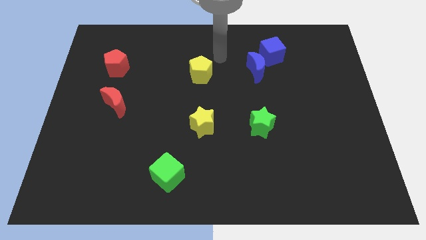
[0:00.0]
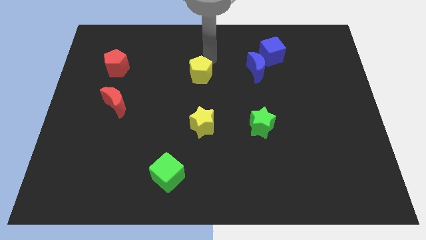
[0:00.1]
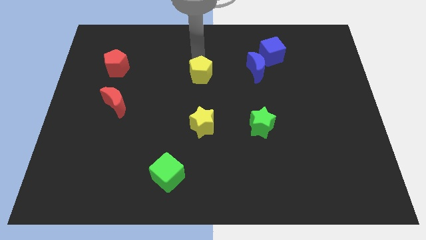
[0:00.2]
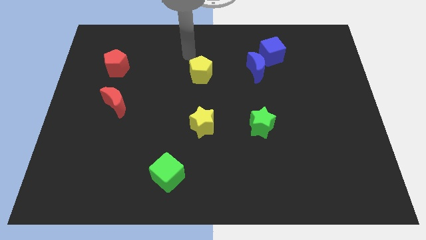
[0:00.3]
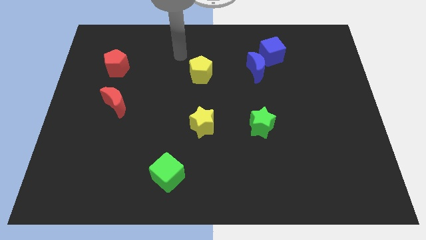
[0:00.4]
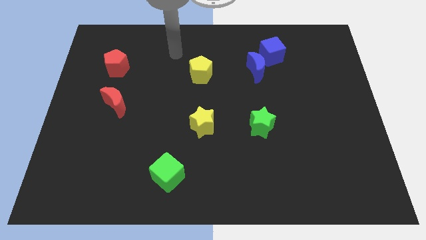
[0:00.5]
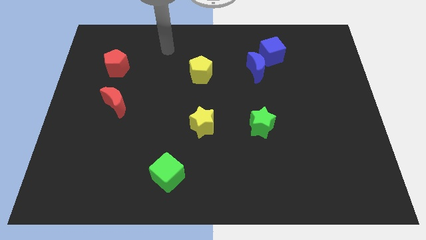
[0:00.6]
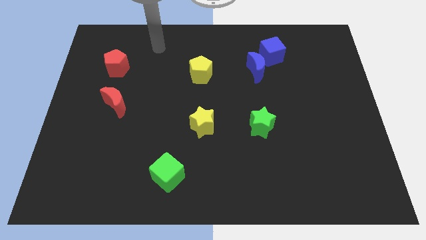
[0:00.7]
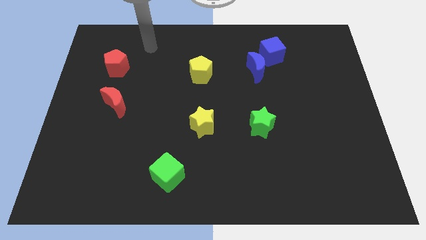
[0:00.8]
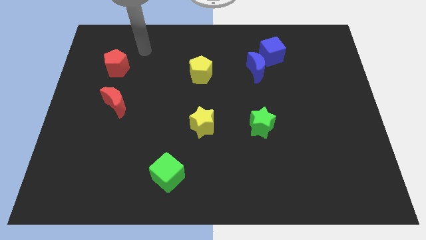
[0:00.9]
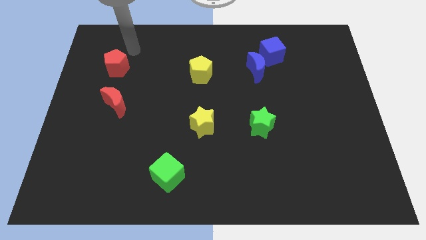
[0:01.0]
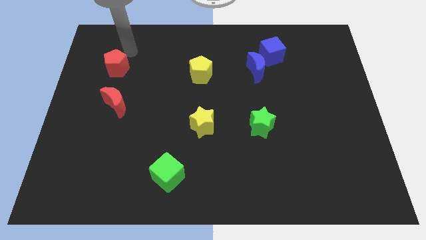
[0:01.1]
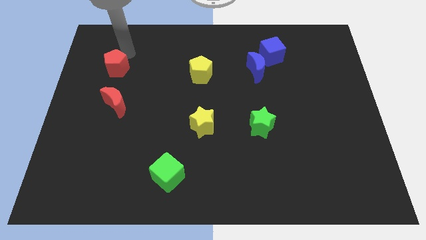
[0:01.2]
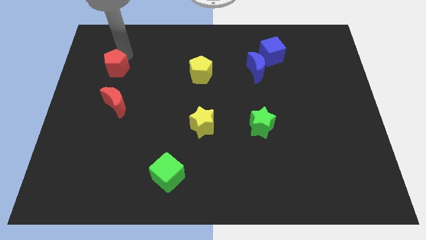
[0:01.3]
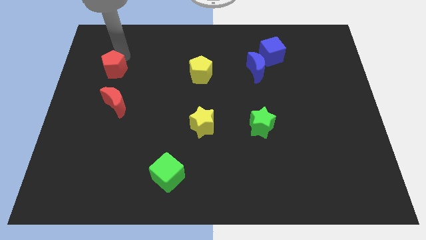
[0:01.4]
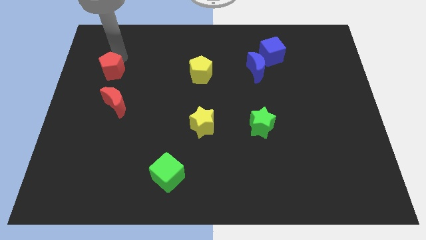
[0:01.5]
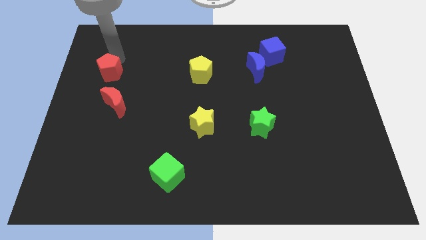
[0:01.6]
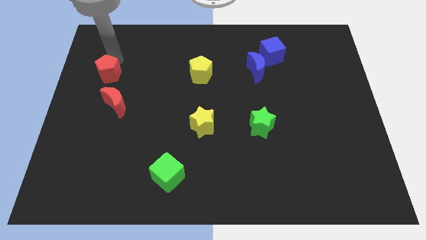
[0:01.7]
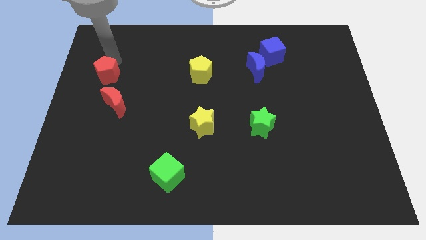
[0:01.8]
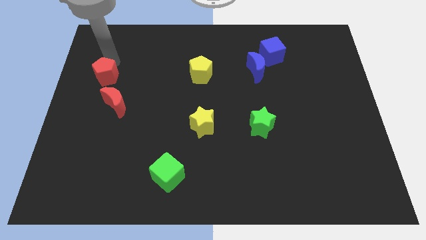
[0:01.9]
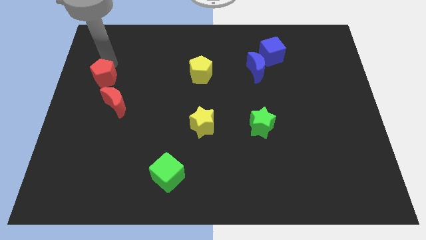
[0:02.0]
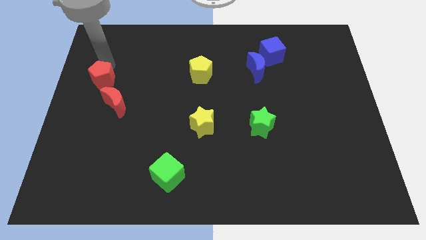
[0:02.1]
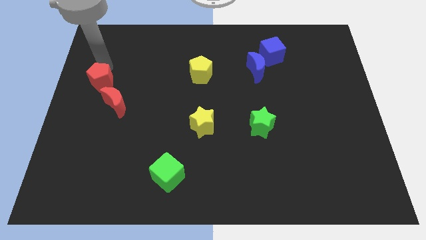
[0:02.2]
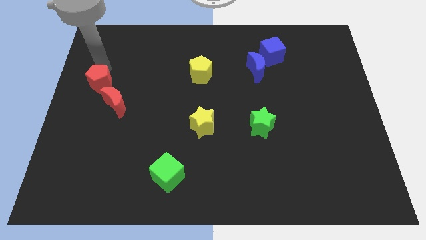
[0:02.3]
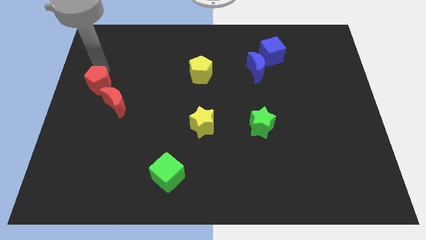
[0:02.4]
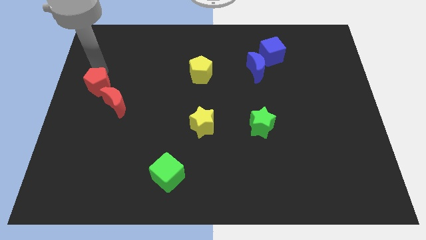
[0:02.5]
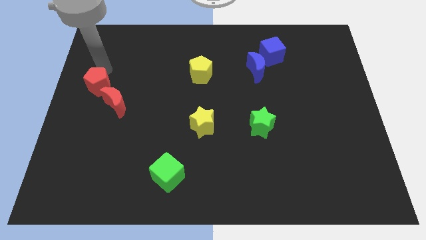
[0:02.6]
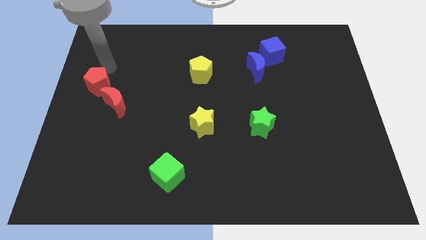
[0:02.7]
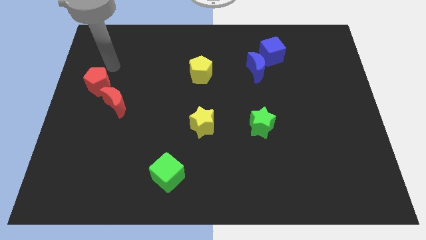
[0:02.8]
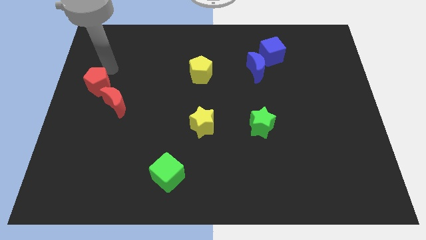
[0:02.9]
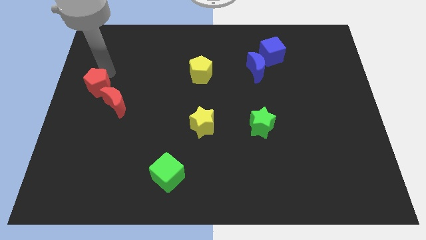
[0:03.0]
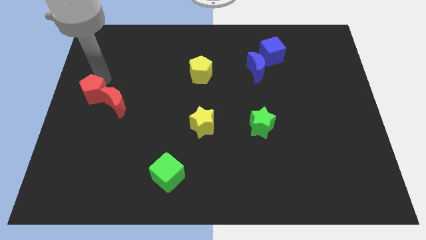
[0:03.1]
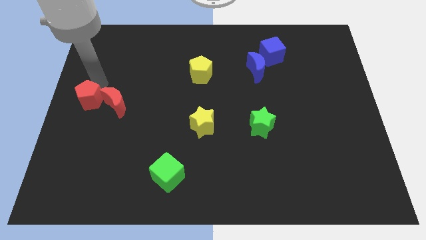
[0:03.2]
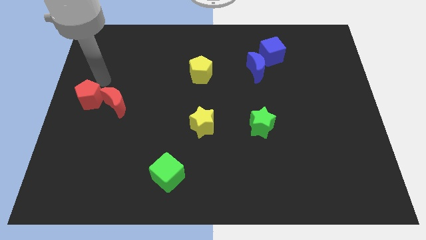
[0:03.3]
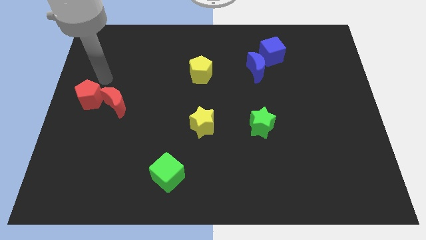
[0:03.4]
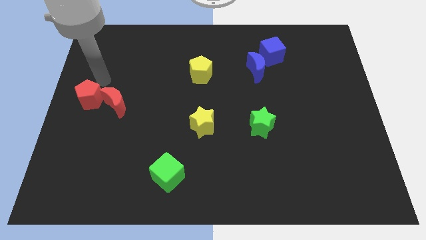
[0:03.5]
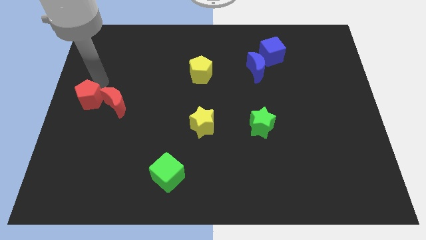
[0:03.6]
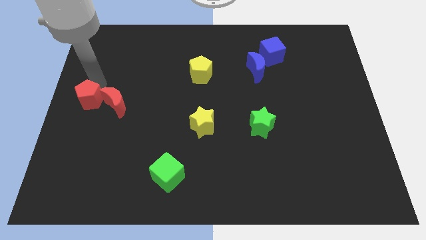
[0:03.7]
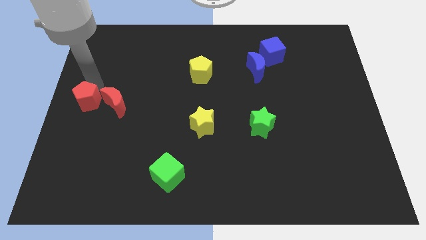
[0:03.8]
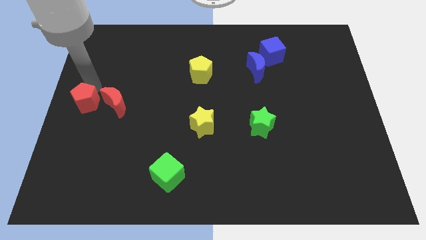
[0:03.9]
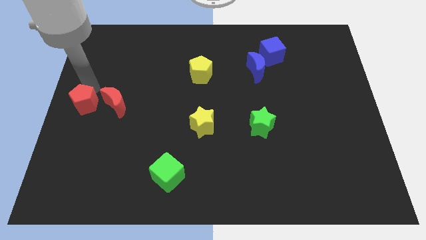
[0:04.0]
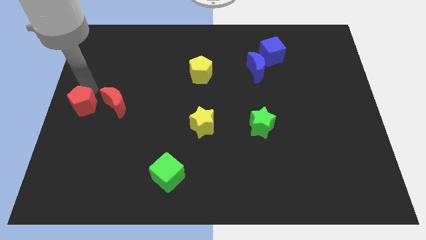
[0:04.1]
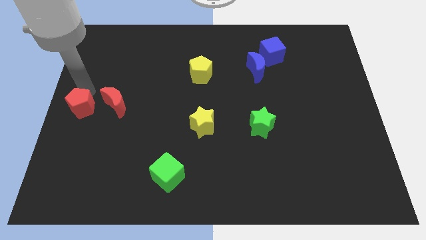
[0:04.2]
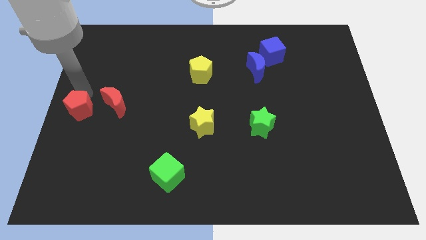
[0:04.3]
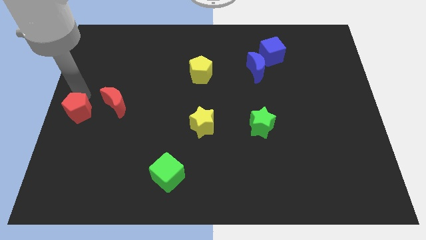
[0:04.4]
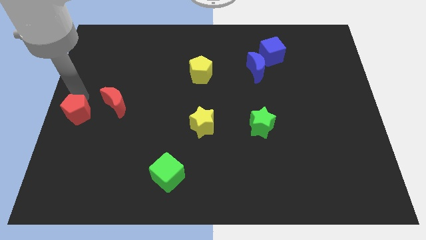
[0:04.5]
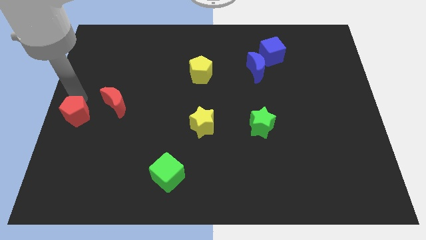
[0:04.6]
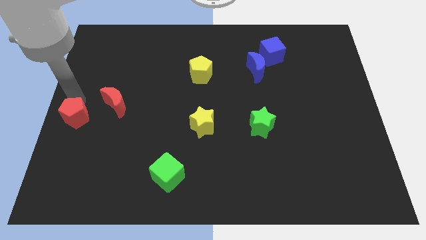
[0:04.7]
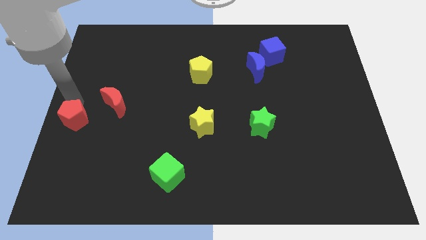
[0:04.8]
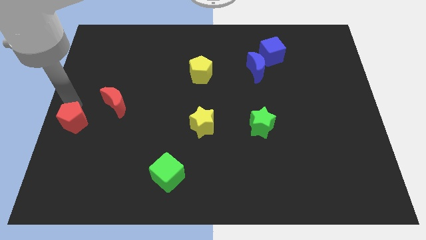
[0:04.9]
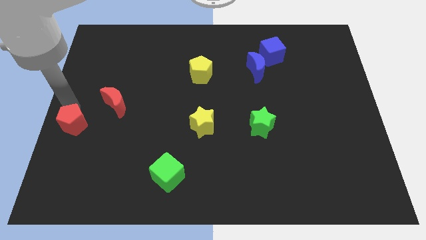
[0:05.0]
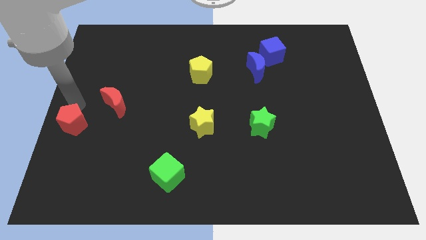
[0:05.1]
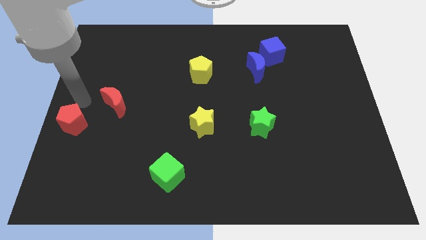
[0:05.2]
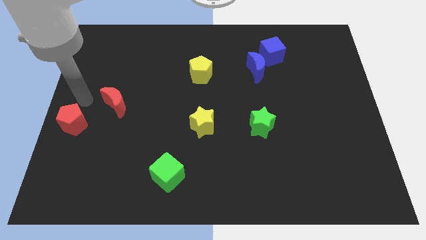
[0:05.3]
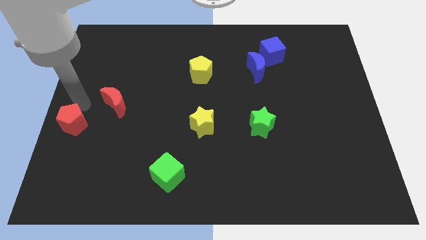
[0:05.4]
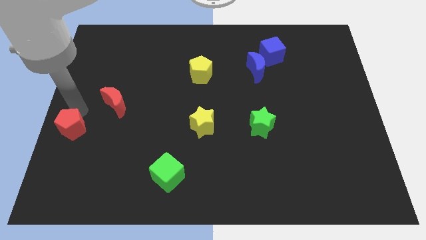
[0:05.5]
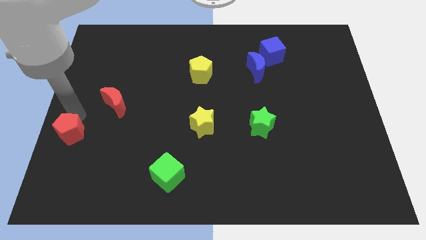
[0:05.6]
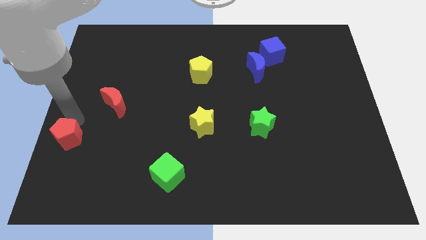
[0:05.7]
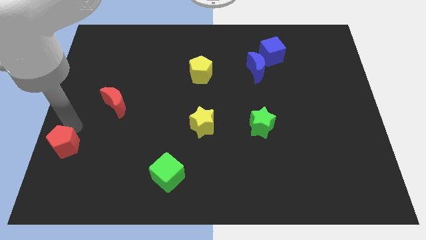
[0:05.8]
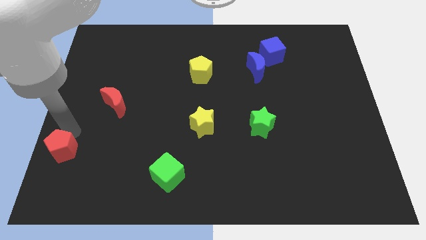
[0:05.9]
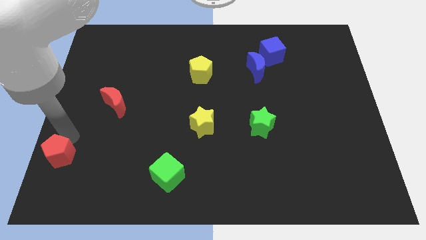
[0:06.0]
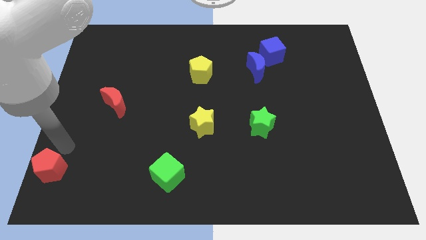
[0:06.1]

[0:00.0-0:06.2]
move the red pentagon to the lower left corner
